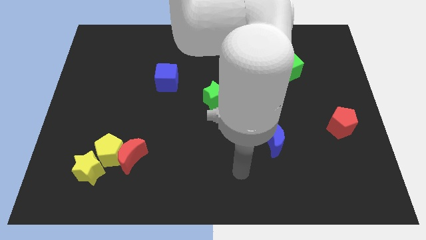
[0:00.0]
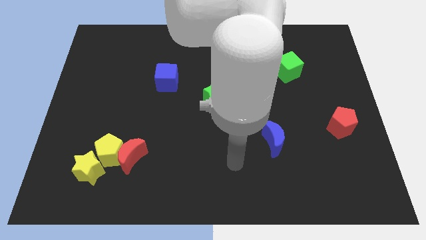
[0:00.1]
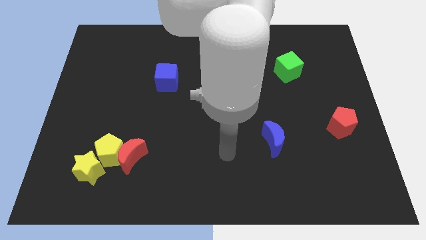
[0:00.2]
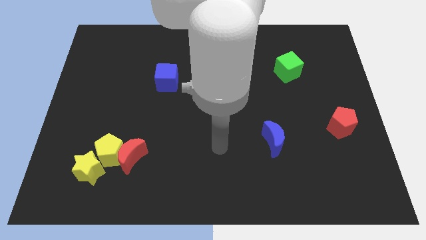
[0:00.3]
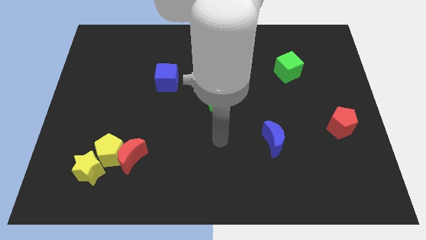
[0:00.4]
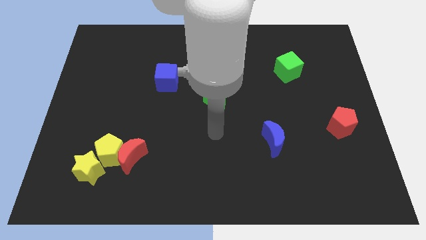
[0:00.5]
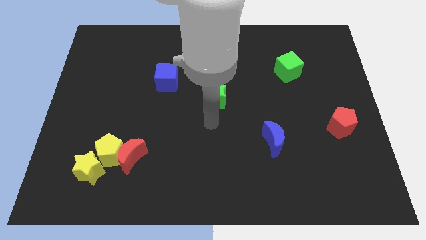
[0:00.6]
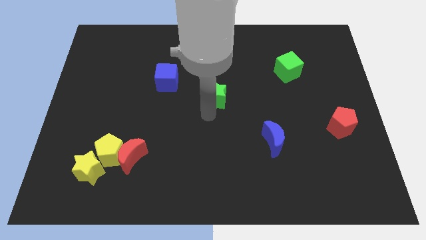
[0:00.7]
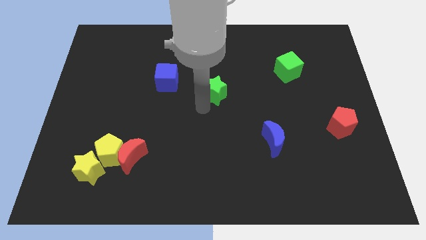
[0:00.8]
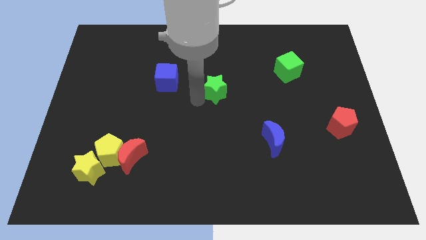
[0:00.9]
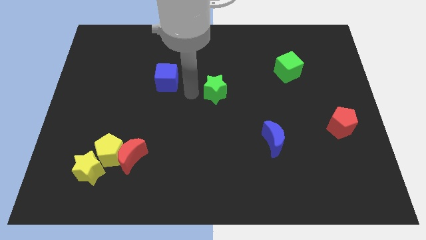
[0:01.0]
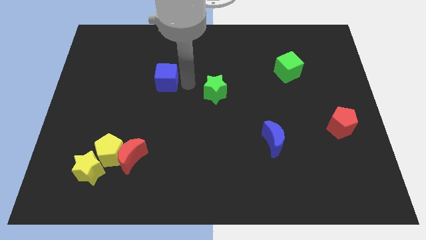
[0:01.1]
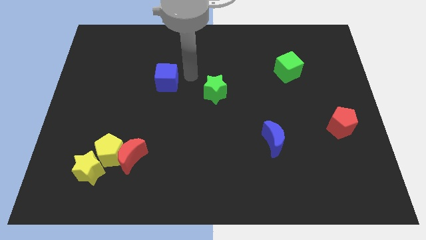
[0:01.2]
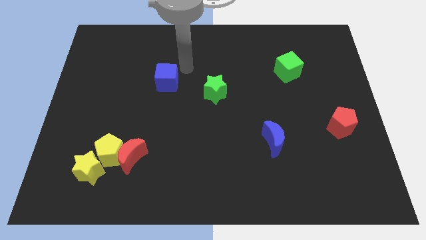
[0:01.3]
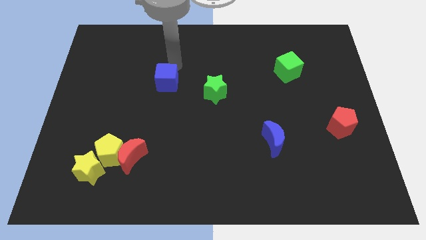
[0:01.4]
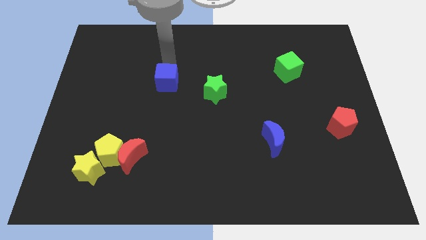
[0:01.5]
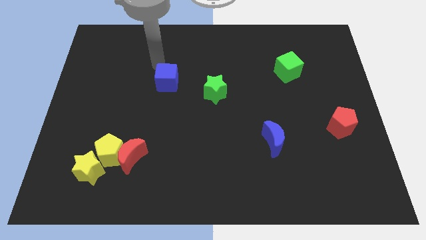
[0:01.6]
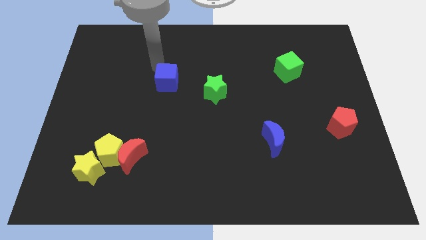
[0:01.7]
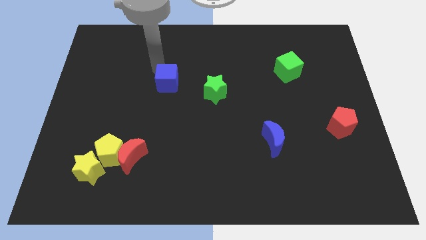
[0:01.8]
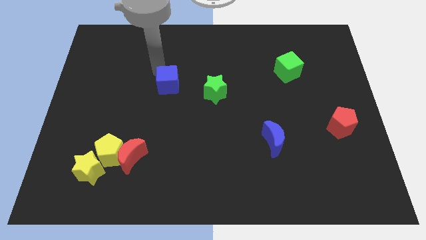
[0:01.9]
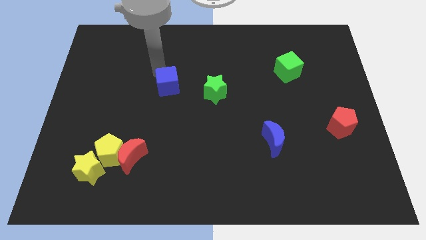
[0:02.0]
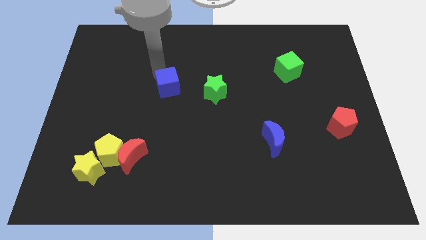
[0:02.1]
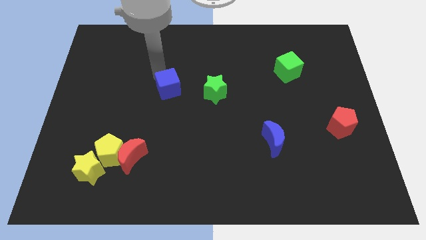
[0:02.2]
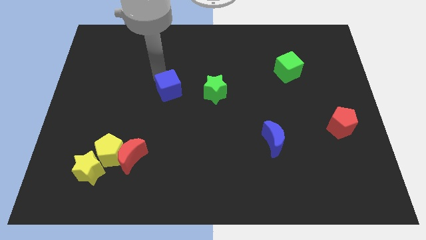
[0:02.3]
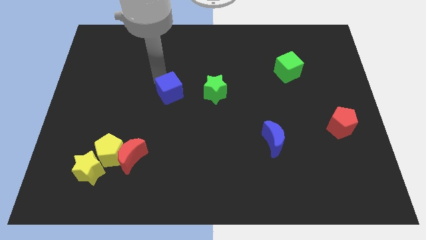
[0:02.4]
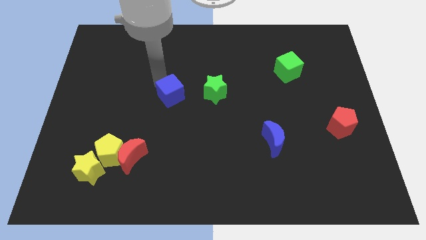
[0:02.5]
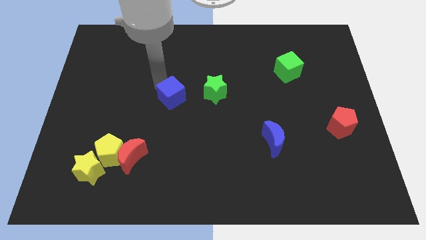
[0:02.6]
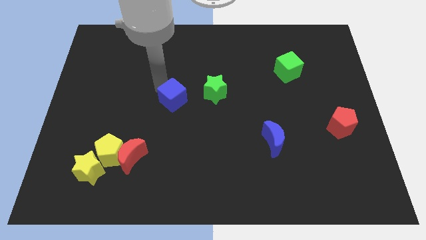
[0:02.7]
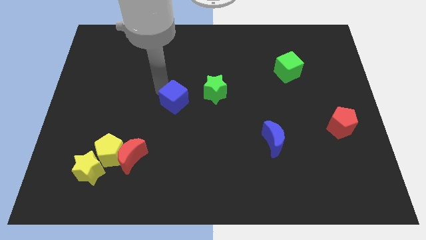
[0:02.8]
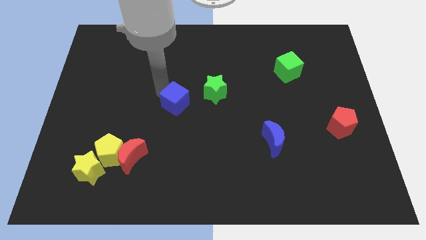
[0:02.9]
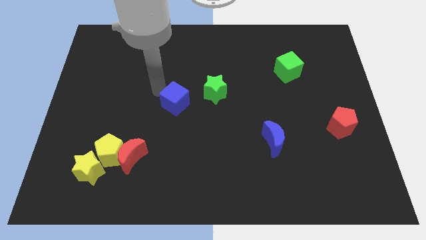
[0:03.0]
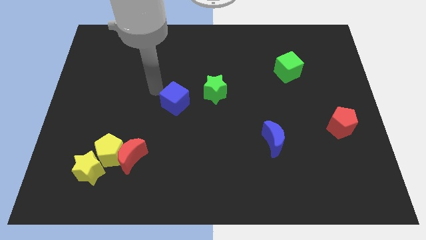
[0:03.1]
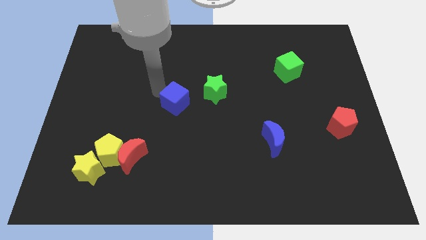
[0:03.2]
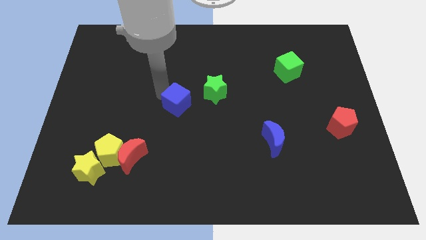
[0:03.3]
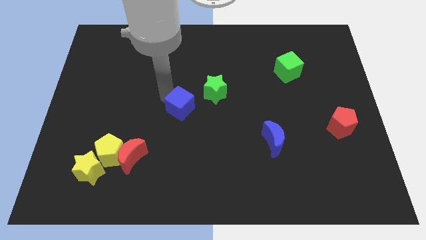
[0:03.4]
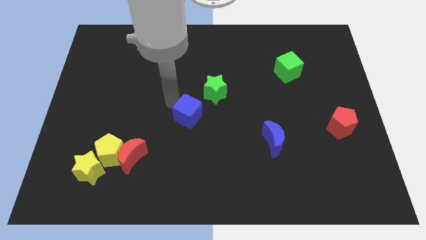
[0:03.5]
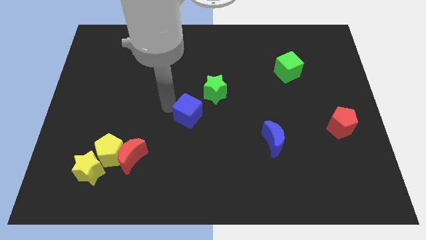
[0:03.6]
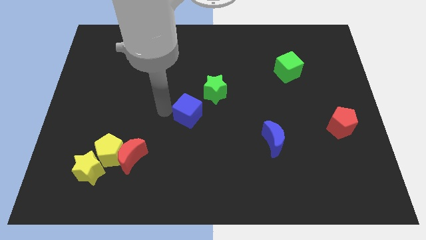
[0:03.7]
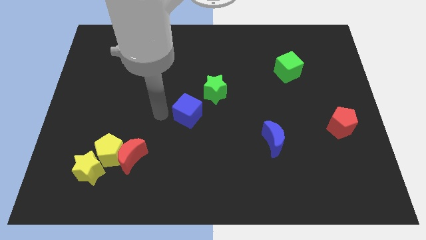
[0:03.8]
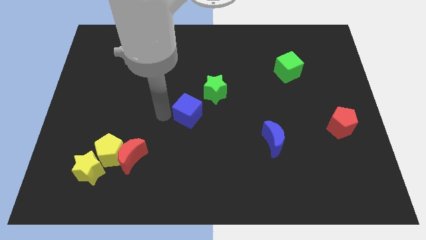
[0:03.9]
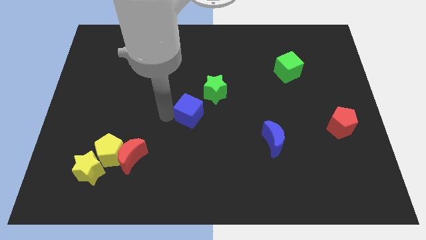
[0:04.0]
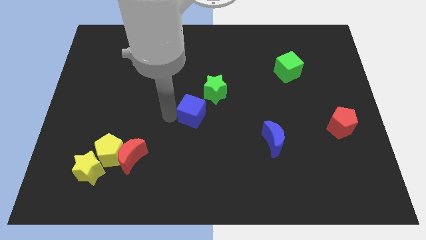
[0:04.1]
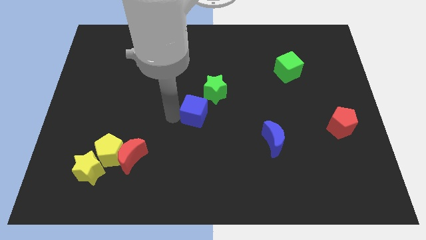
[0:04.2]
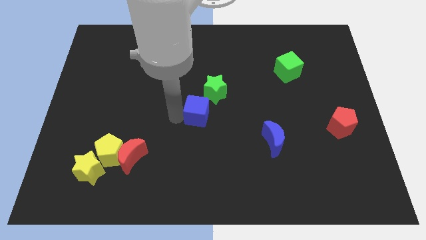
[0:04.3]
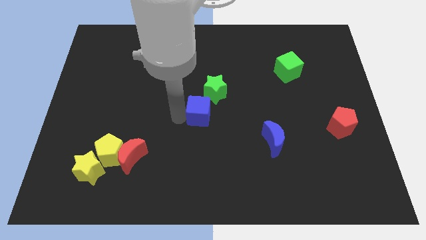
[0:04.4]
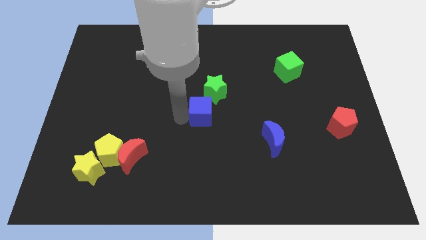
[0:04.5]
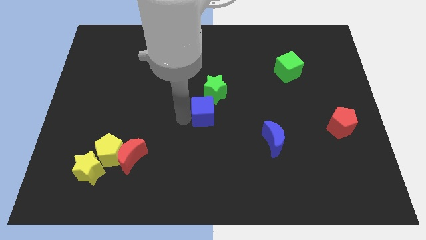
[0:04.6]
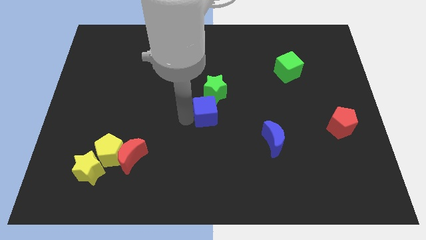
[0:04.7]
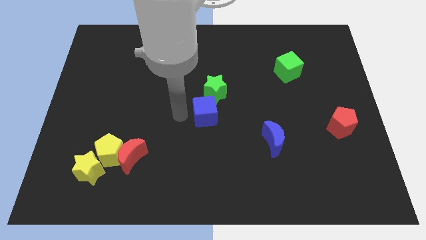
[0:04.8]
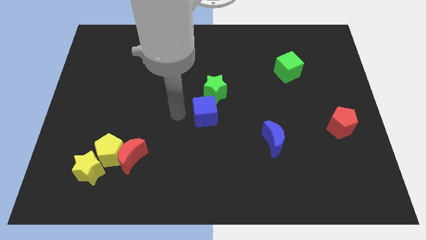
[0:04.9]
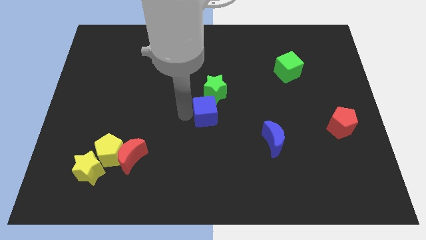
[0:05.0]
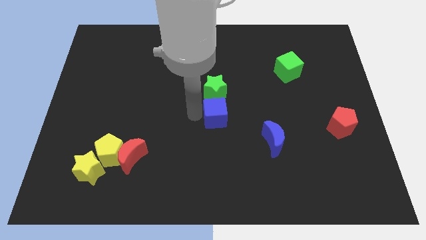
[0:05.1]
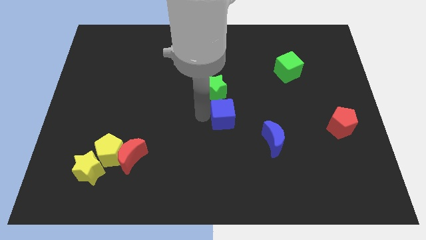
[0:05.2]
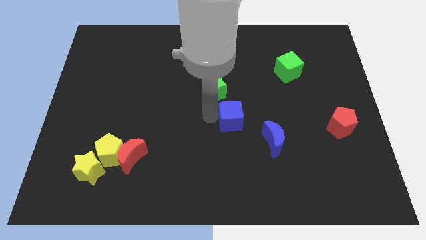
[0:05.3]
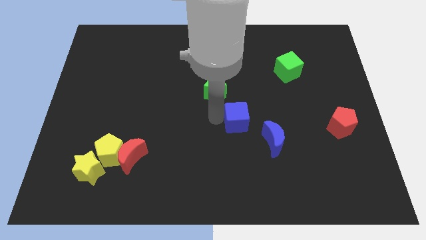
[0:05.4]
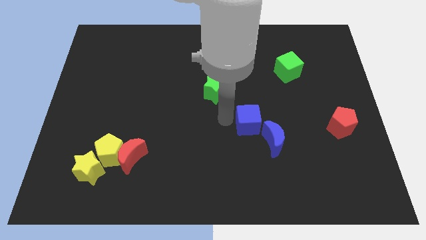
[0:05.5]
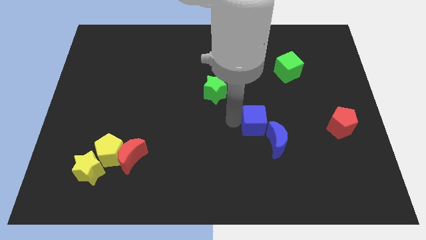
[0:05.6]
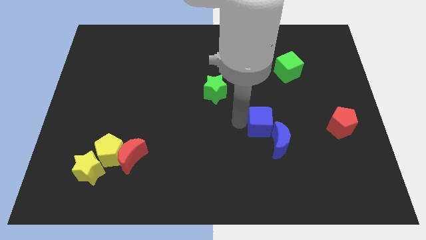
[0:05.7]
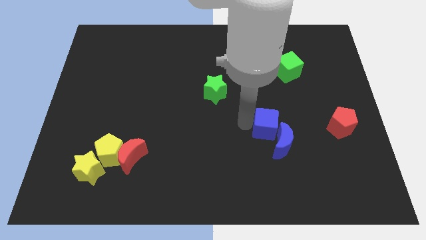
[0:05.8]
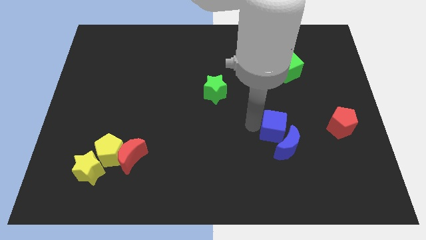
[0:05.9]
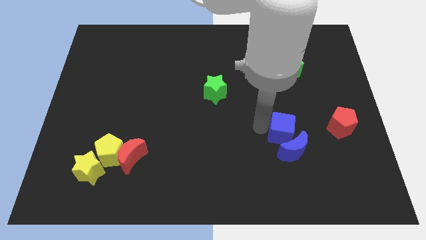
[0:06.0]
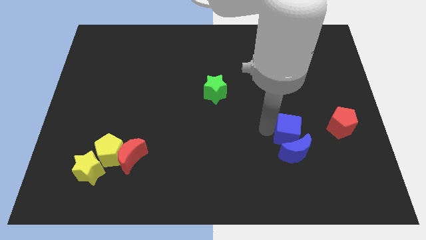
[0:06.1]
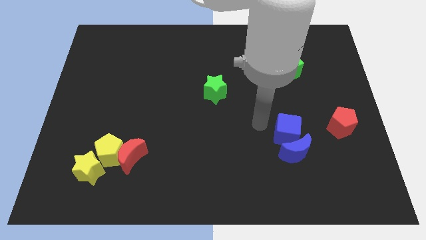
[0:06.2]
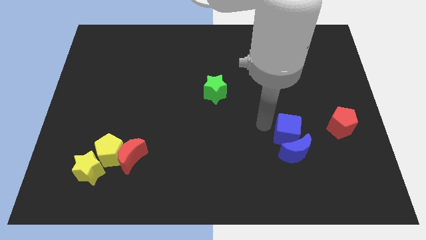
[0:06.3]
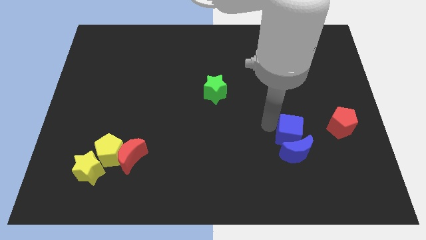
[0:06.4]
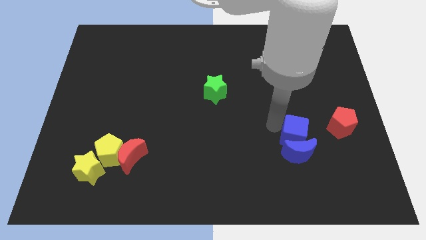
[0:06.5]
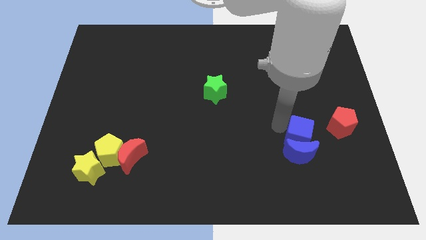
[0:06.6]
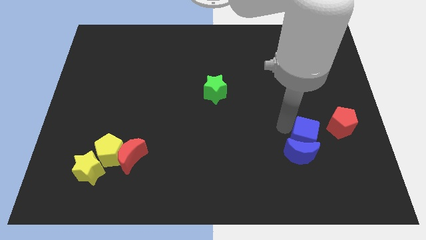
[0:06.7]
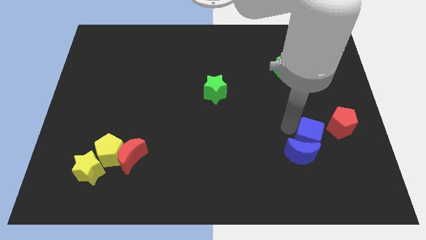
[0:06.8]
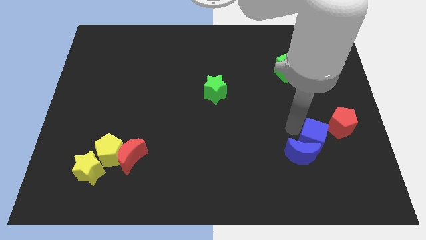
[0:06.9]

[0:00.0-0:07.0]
slide the blue cube just right of the blue moon

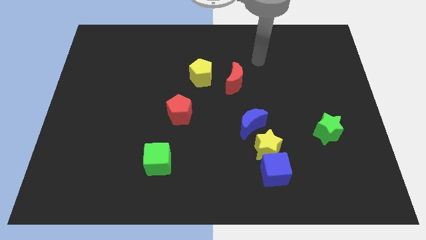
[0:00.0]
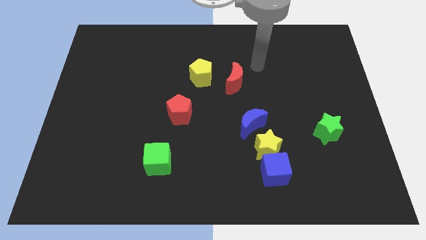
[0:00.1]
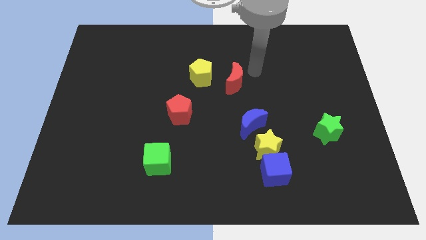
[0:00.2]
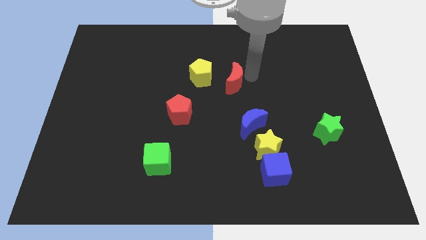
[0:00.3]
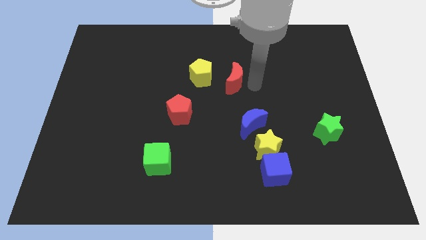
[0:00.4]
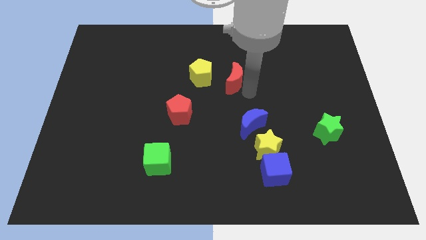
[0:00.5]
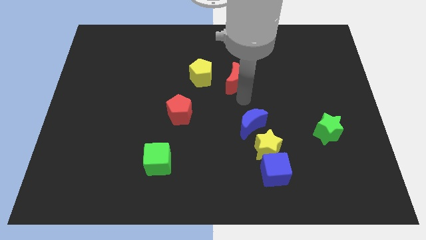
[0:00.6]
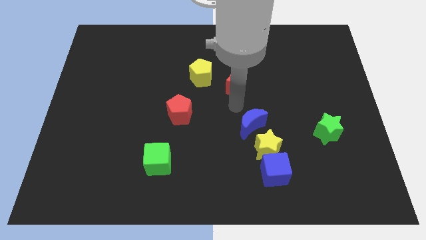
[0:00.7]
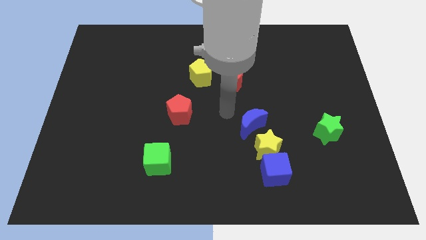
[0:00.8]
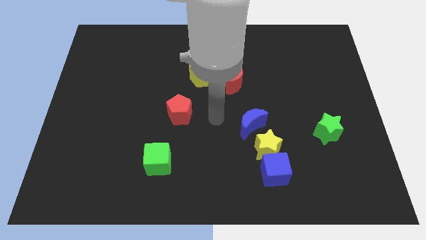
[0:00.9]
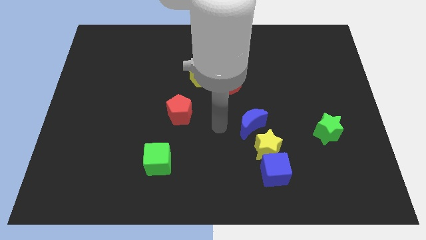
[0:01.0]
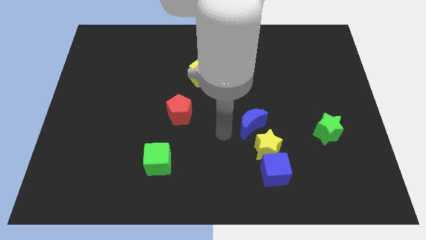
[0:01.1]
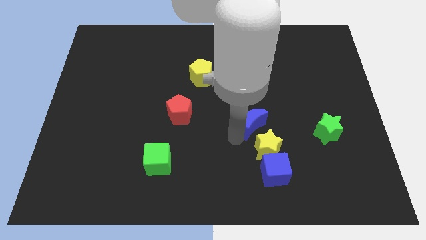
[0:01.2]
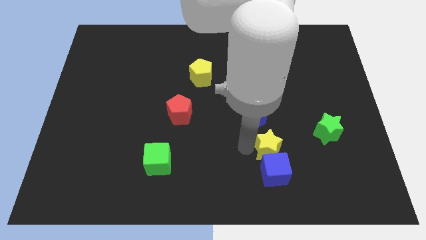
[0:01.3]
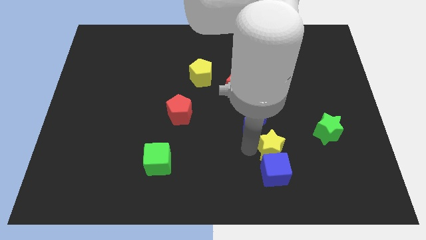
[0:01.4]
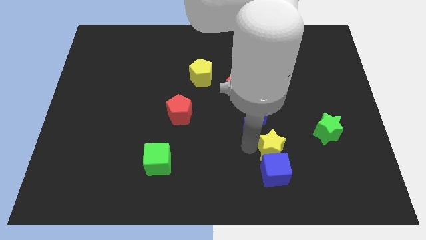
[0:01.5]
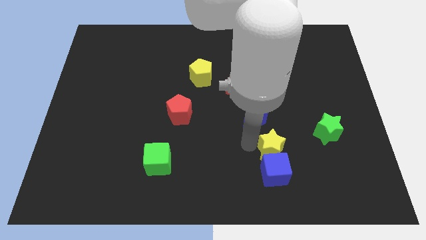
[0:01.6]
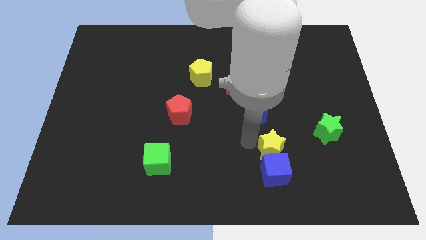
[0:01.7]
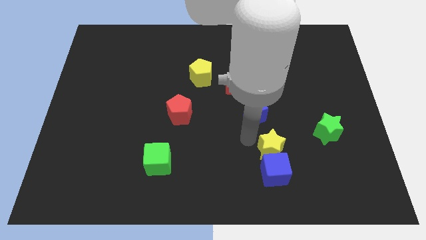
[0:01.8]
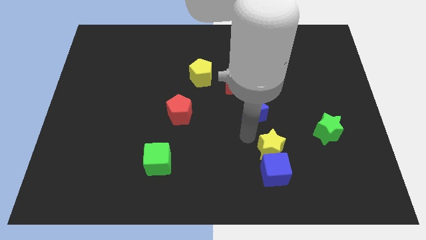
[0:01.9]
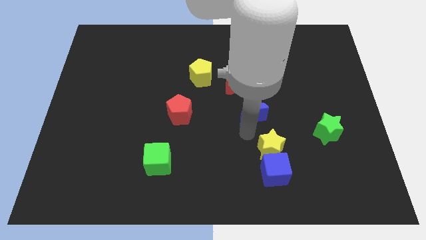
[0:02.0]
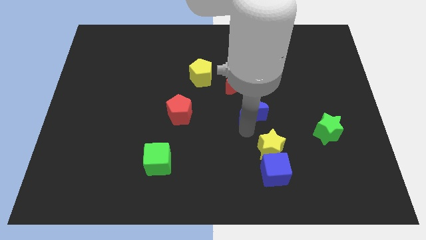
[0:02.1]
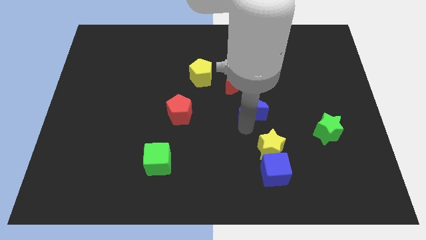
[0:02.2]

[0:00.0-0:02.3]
put the blue moon to the bottom right of the red moon
